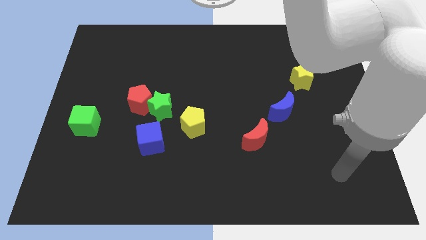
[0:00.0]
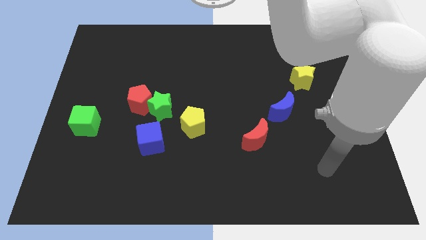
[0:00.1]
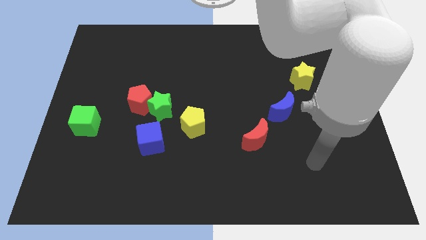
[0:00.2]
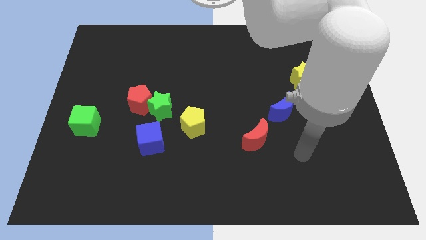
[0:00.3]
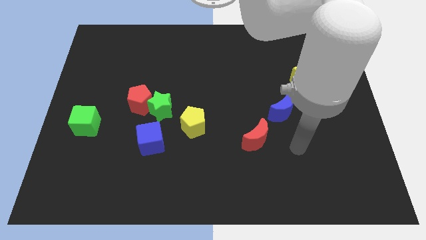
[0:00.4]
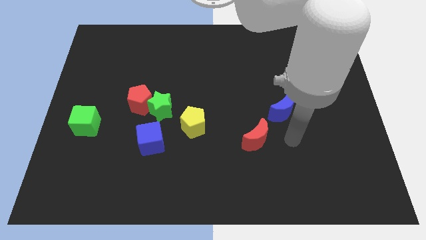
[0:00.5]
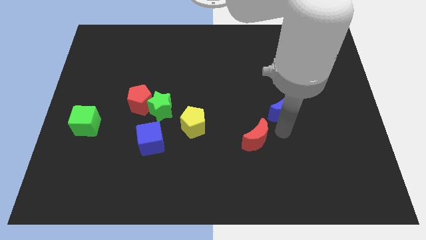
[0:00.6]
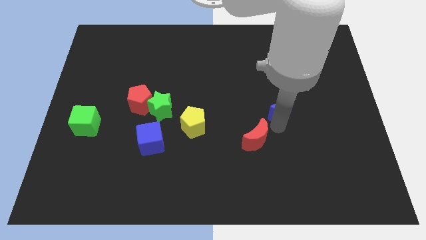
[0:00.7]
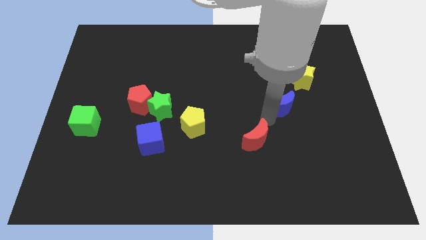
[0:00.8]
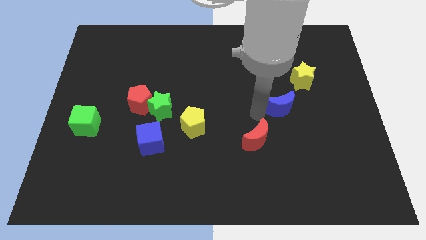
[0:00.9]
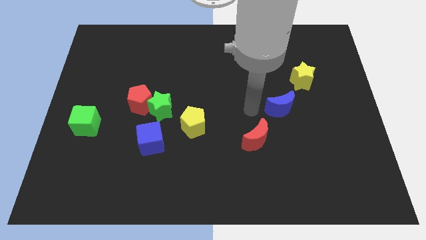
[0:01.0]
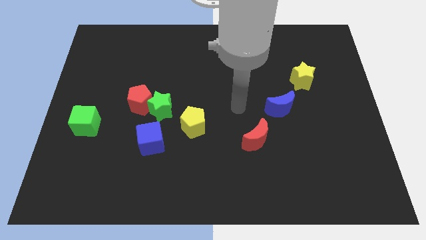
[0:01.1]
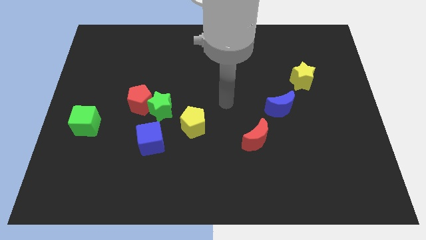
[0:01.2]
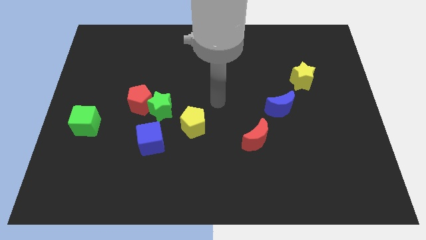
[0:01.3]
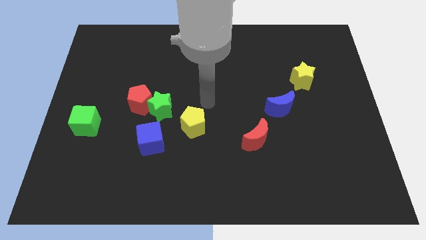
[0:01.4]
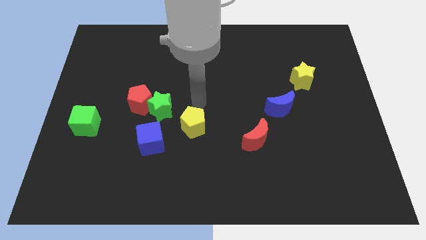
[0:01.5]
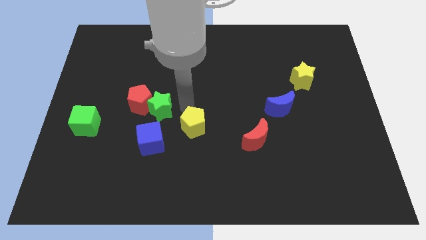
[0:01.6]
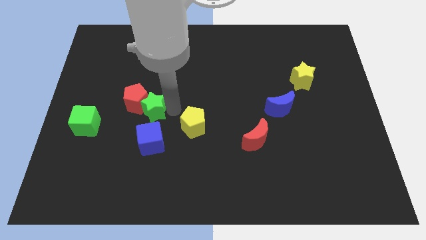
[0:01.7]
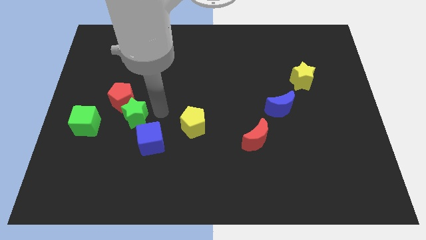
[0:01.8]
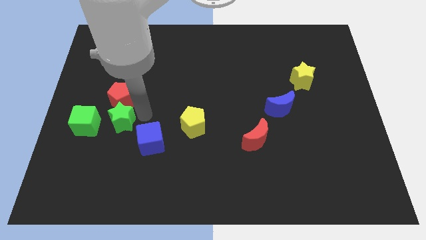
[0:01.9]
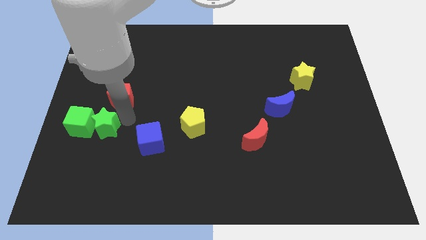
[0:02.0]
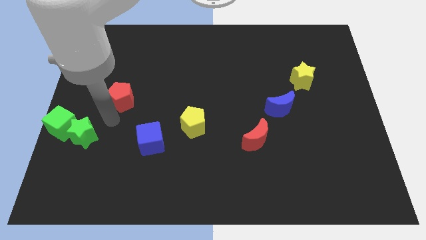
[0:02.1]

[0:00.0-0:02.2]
separate the red pentagon from the green star

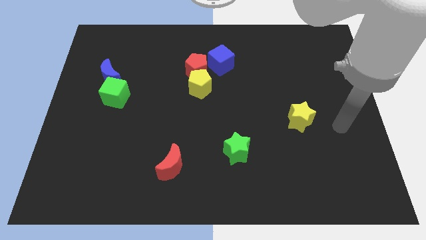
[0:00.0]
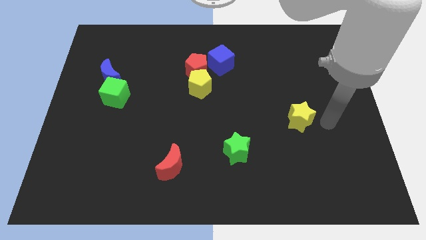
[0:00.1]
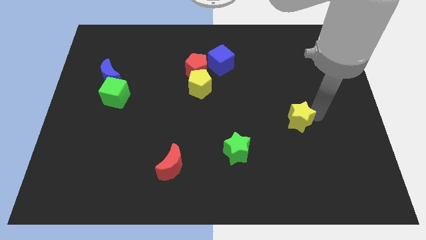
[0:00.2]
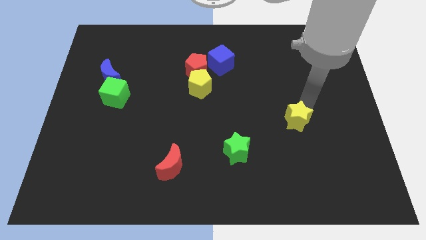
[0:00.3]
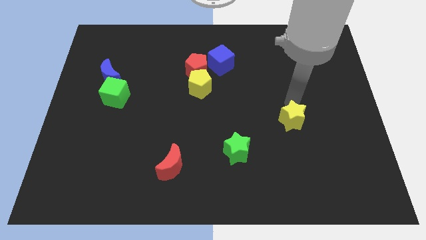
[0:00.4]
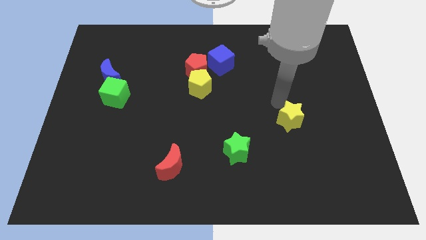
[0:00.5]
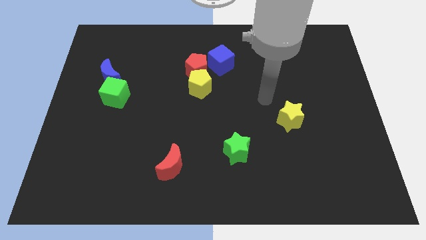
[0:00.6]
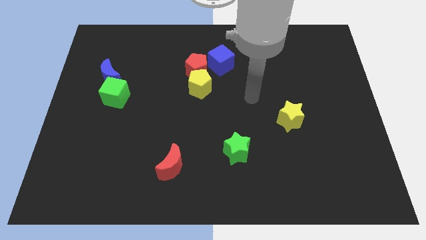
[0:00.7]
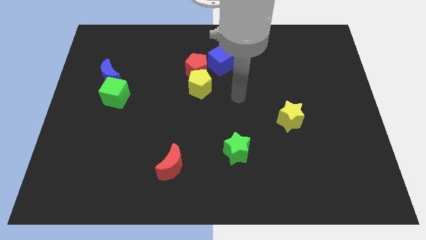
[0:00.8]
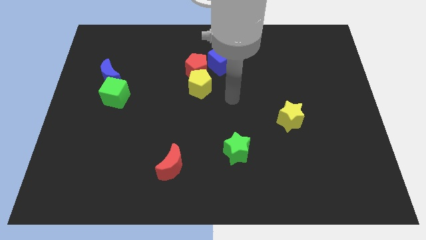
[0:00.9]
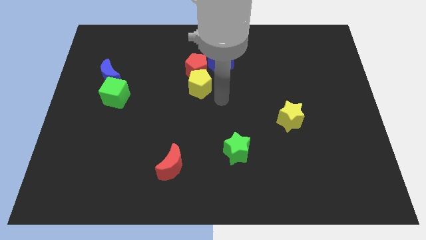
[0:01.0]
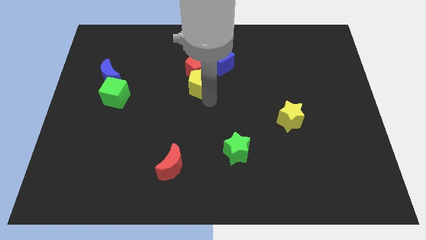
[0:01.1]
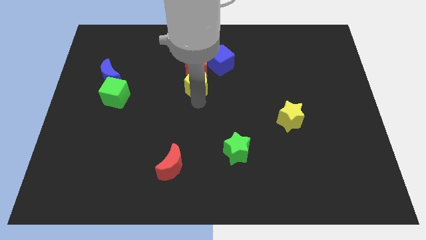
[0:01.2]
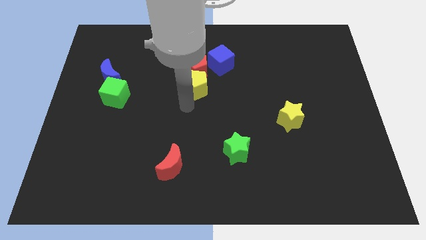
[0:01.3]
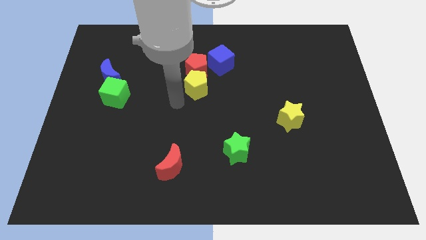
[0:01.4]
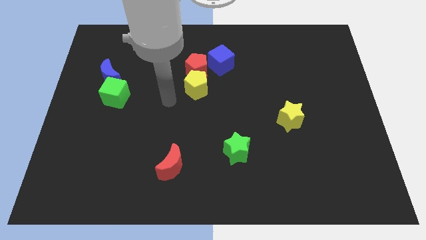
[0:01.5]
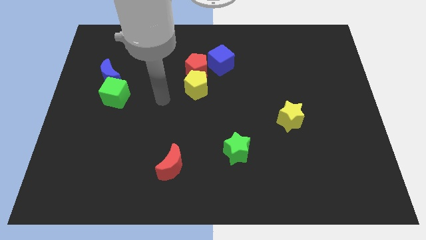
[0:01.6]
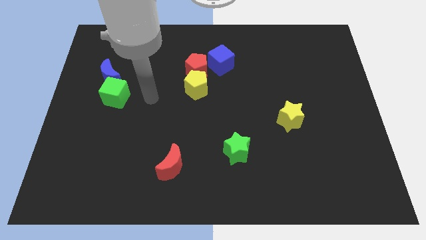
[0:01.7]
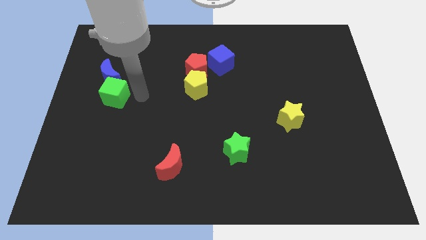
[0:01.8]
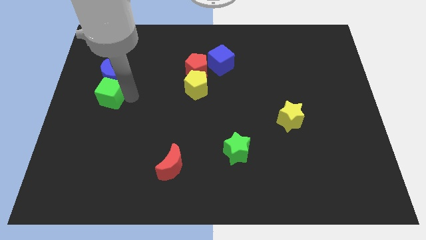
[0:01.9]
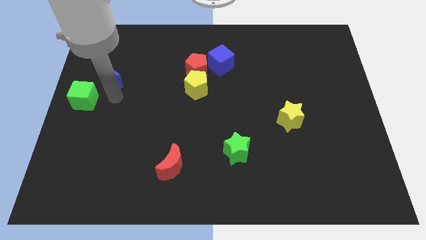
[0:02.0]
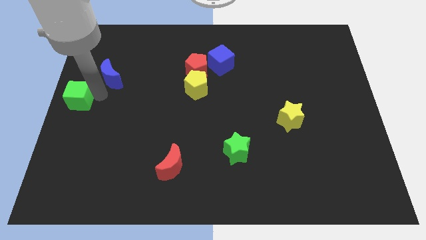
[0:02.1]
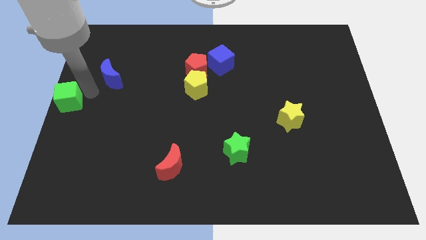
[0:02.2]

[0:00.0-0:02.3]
move the blue moon away from the green cube

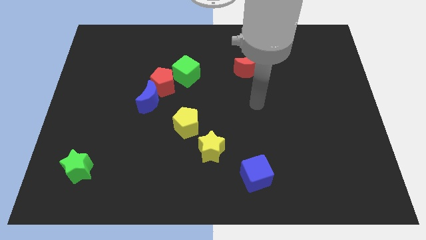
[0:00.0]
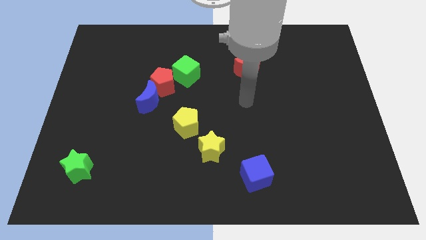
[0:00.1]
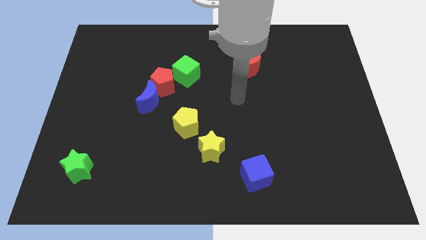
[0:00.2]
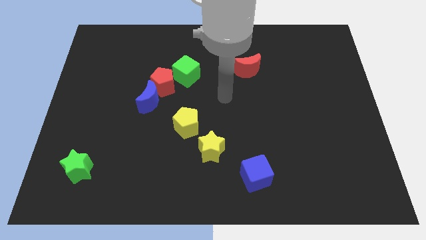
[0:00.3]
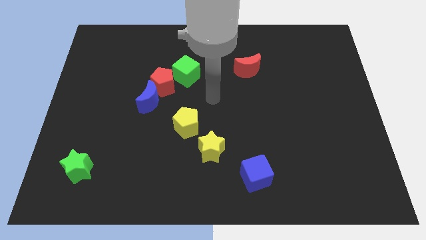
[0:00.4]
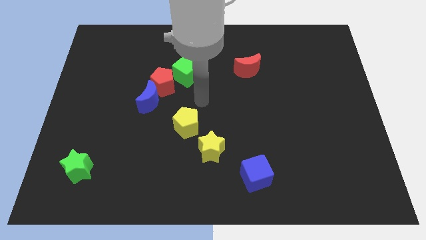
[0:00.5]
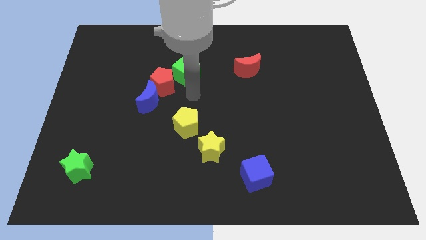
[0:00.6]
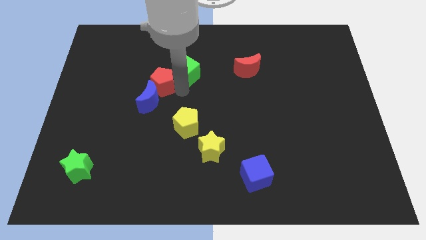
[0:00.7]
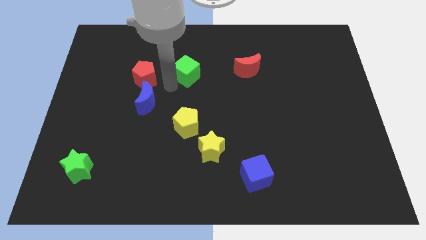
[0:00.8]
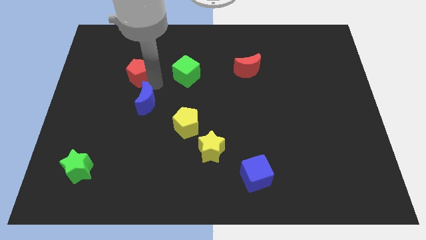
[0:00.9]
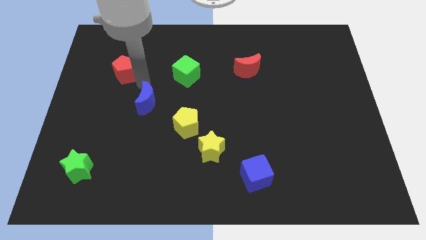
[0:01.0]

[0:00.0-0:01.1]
move the blue moon away from the red pentagon

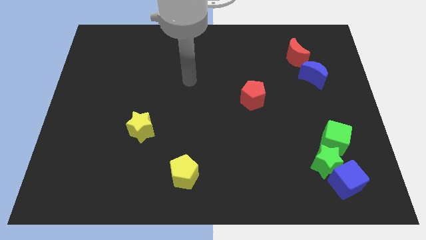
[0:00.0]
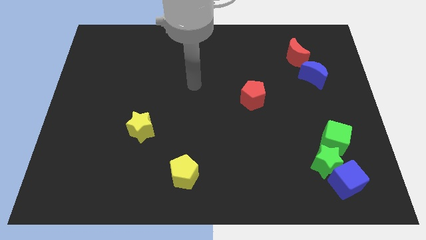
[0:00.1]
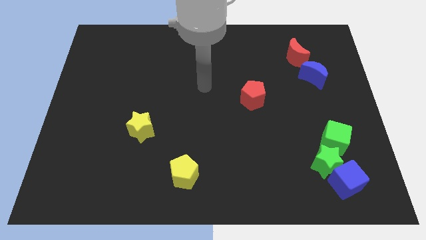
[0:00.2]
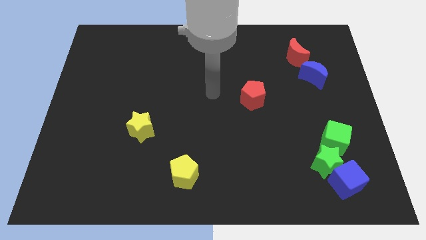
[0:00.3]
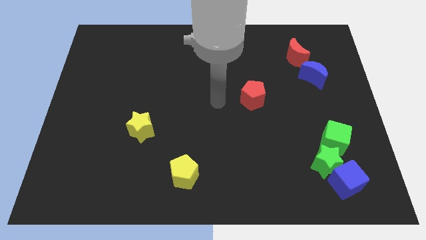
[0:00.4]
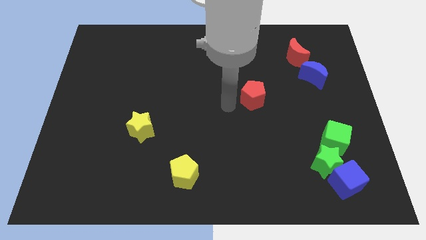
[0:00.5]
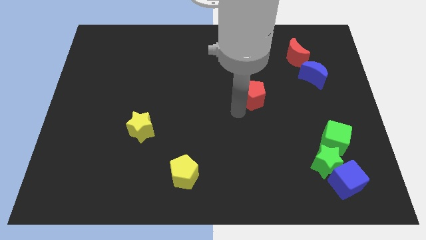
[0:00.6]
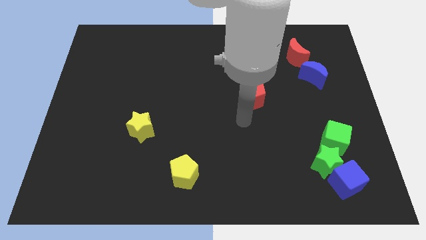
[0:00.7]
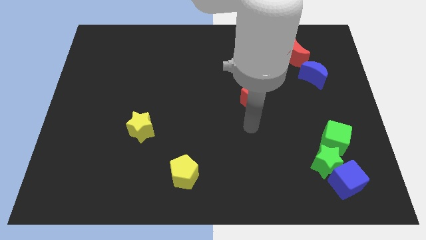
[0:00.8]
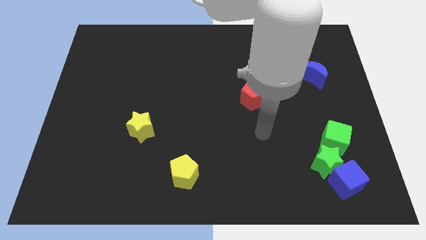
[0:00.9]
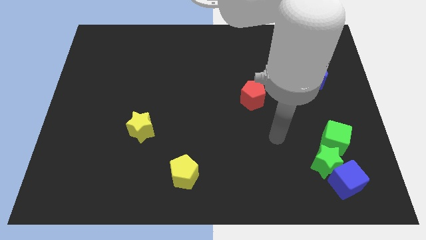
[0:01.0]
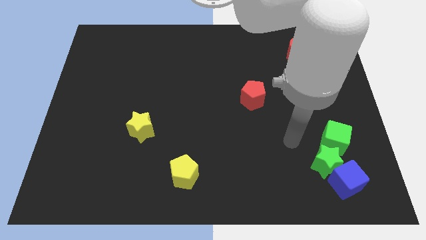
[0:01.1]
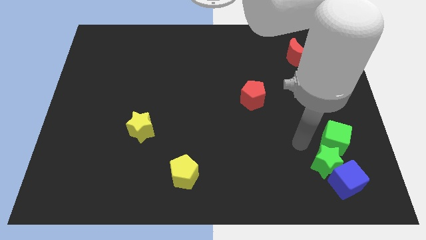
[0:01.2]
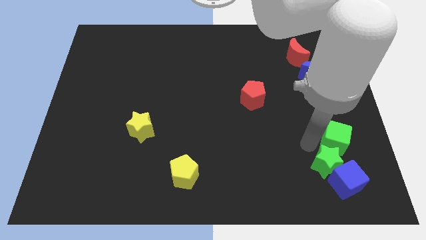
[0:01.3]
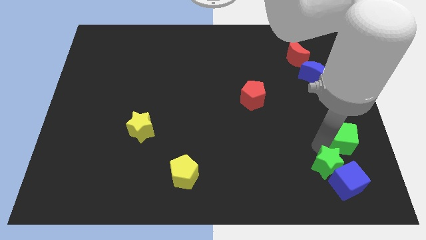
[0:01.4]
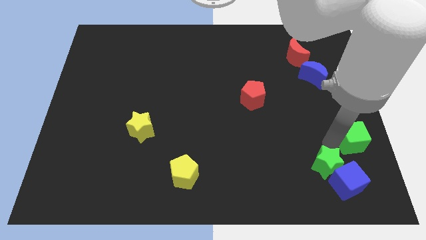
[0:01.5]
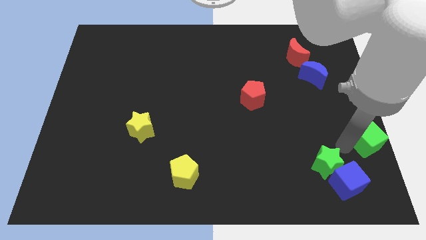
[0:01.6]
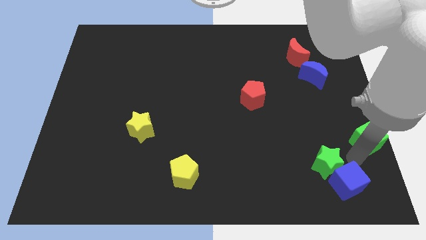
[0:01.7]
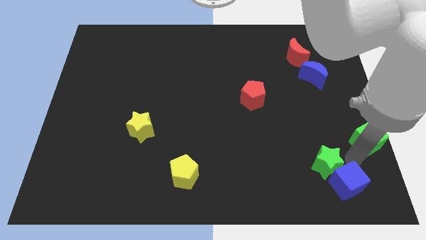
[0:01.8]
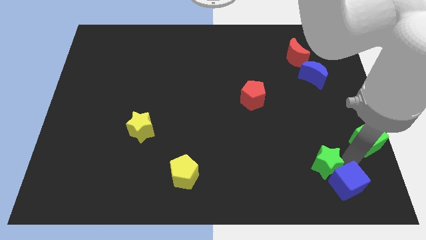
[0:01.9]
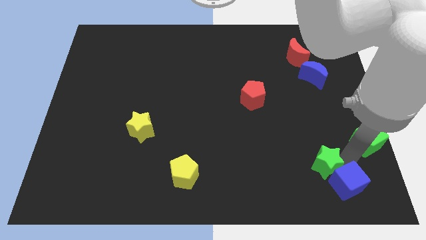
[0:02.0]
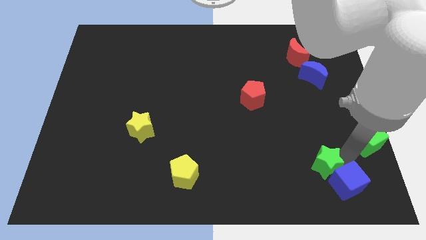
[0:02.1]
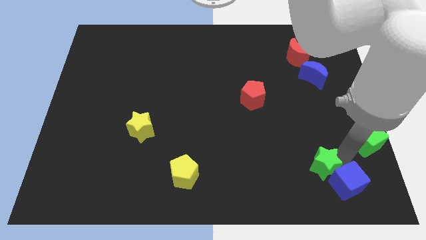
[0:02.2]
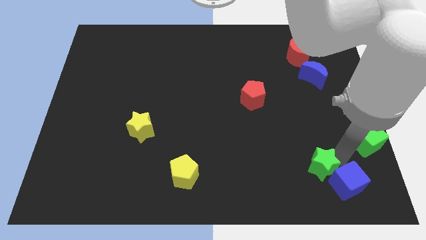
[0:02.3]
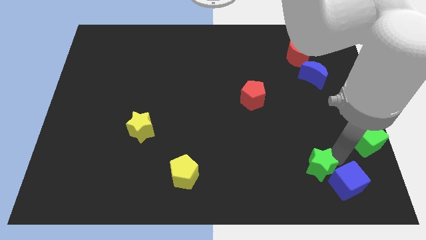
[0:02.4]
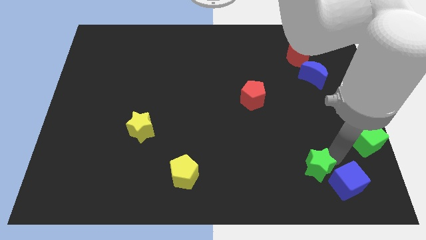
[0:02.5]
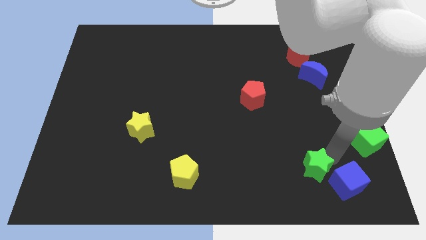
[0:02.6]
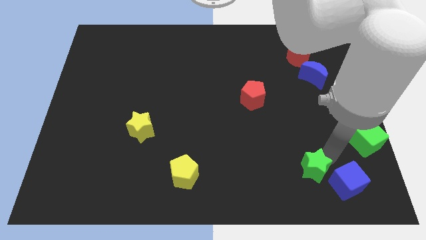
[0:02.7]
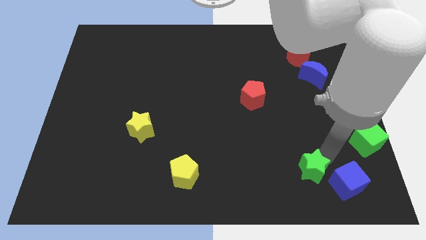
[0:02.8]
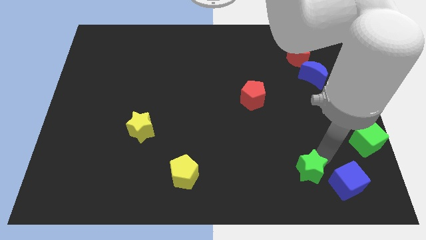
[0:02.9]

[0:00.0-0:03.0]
separate the green star from the blue cube and green cube

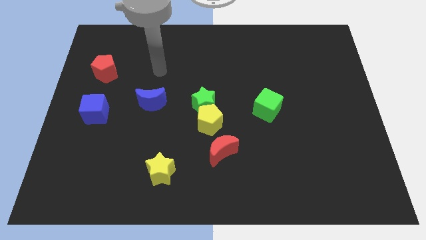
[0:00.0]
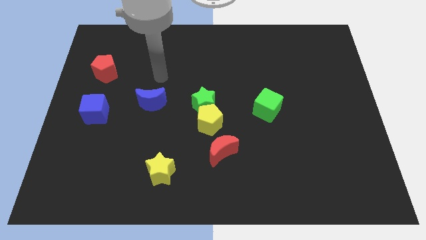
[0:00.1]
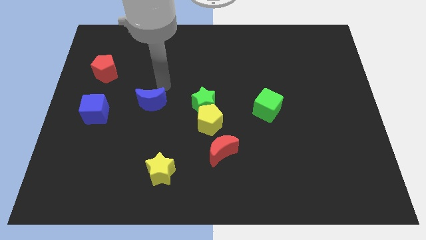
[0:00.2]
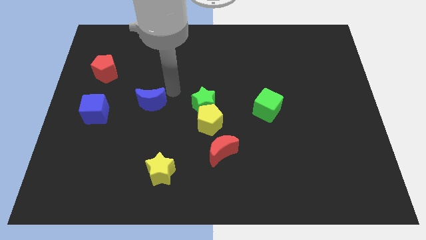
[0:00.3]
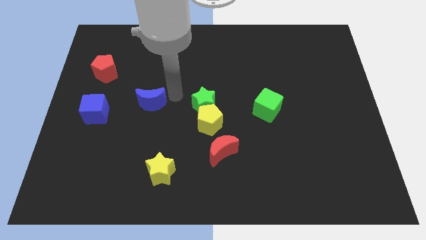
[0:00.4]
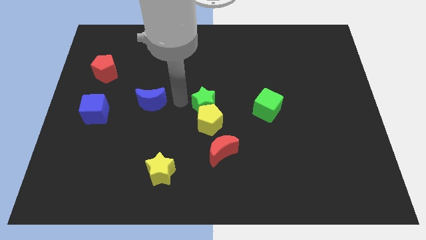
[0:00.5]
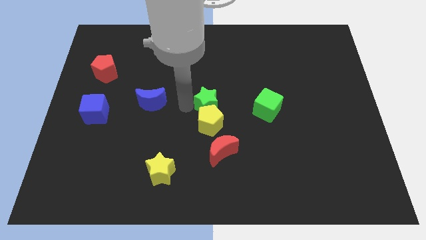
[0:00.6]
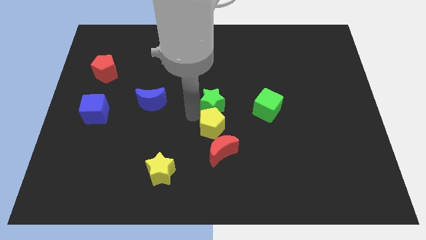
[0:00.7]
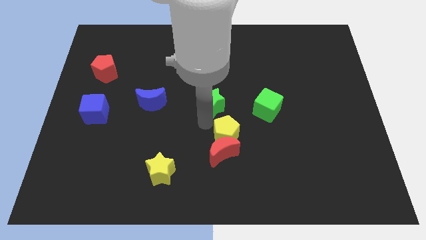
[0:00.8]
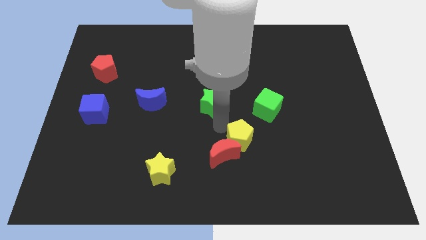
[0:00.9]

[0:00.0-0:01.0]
separate the green star from the yellow pentagon

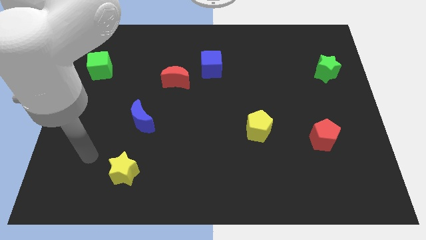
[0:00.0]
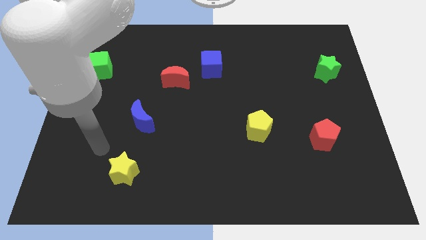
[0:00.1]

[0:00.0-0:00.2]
move the red moon away from the blue cube